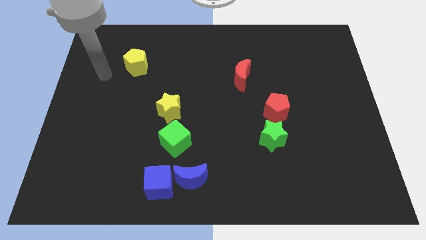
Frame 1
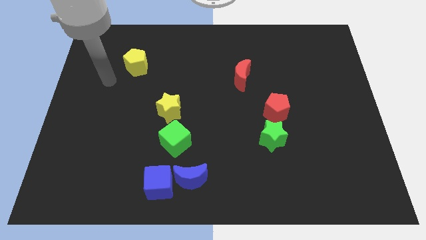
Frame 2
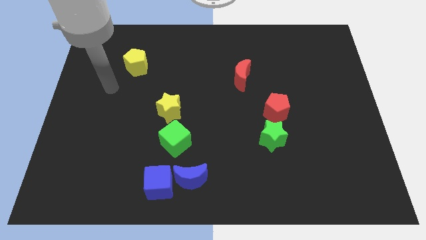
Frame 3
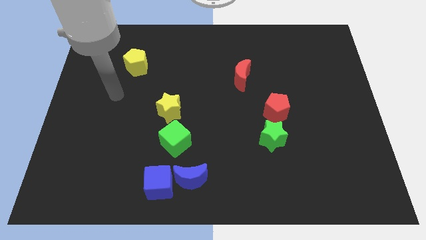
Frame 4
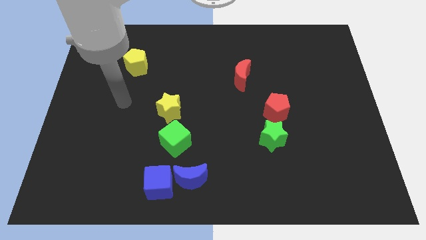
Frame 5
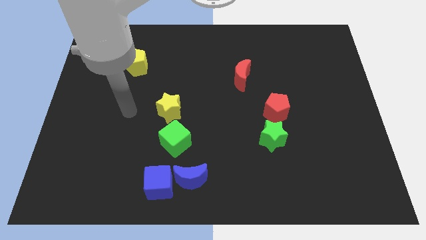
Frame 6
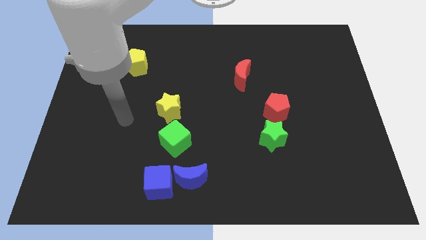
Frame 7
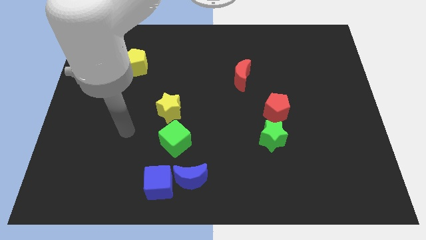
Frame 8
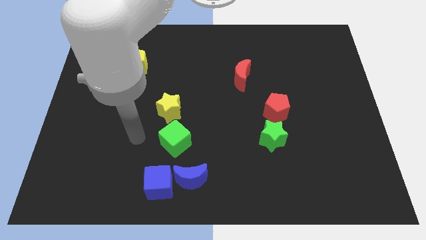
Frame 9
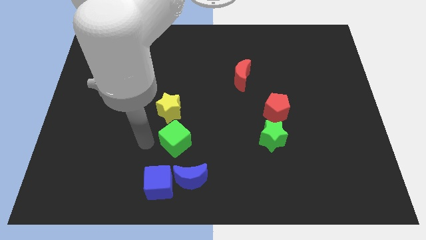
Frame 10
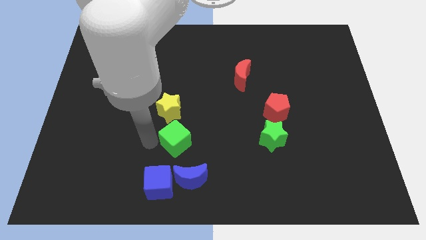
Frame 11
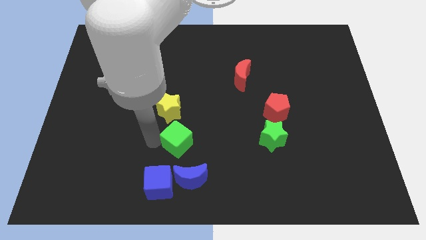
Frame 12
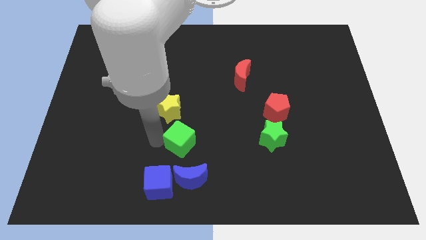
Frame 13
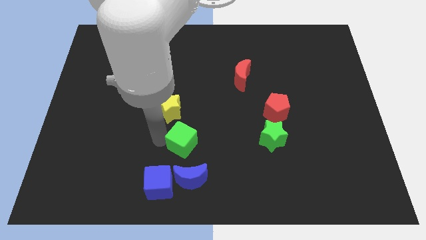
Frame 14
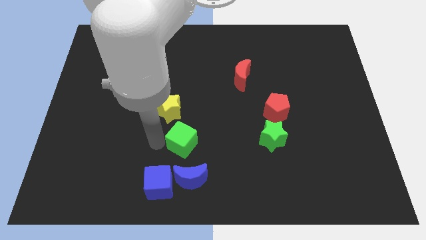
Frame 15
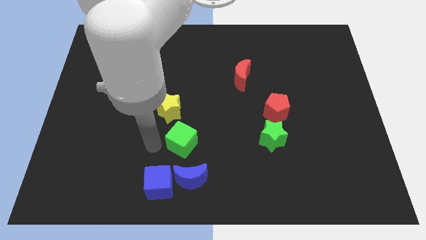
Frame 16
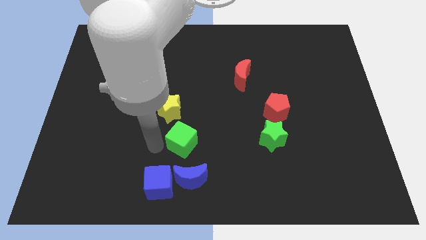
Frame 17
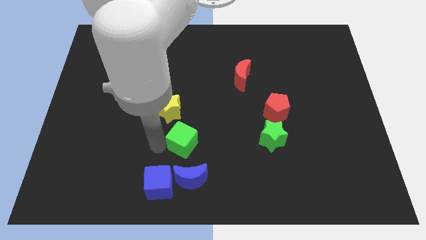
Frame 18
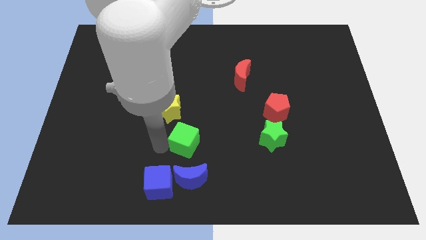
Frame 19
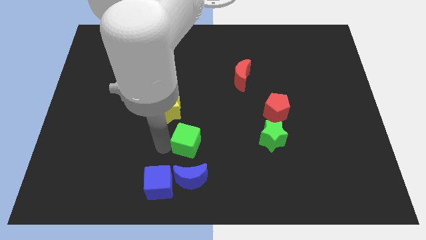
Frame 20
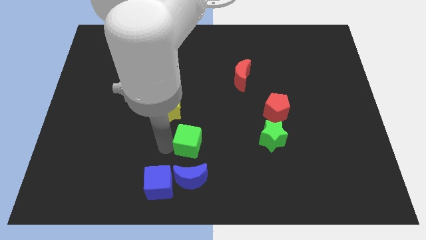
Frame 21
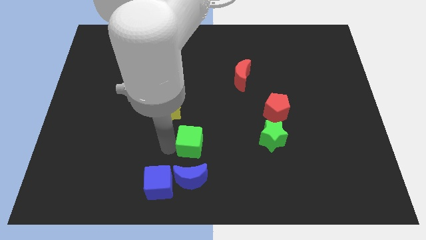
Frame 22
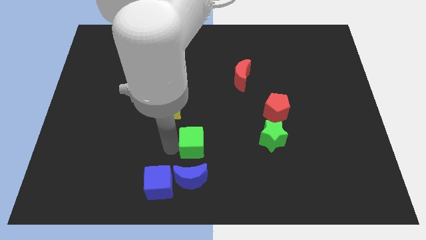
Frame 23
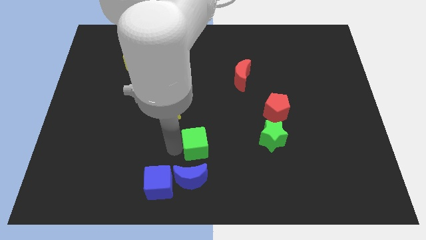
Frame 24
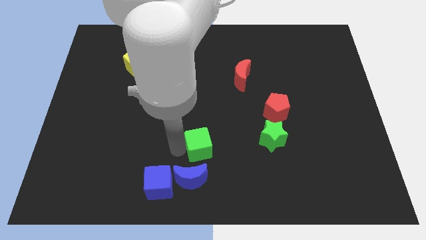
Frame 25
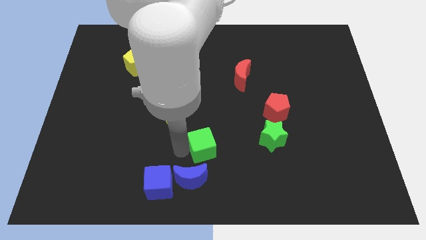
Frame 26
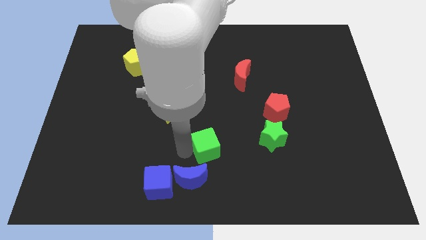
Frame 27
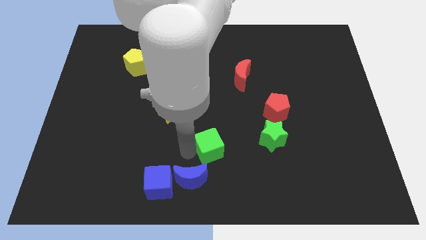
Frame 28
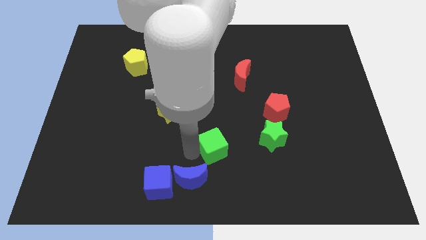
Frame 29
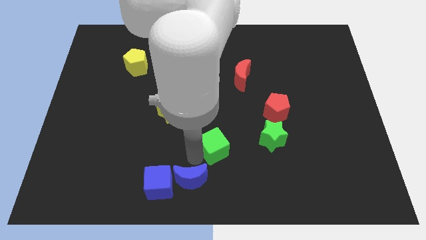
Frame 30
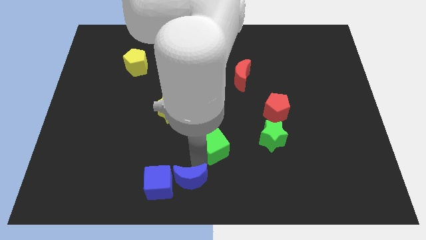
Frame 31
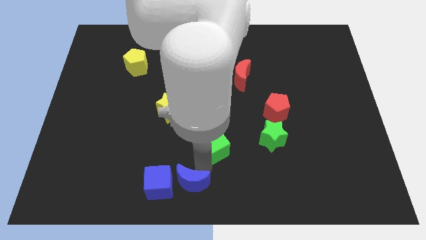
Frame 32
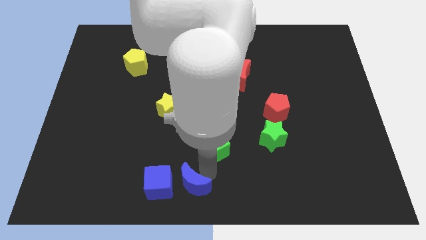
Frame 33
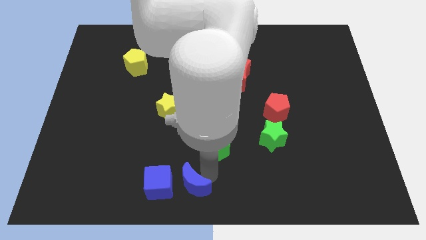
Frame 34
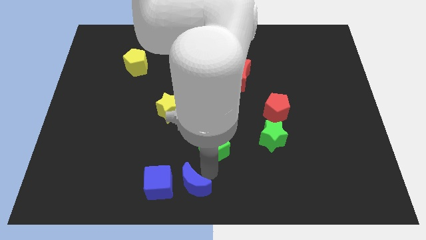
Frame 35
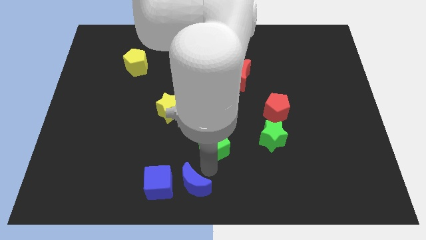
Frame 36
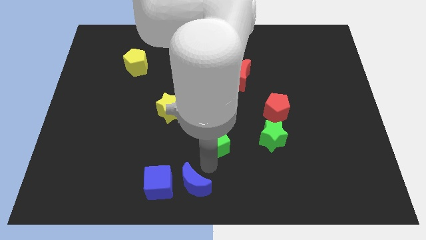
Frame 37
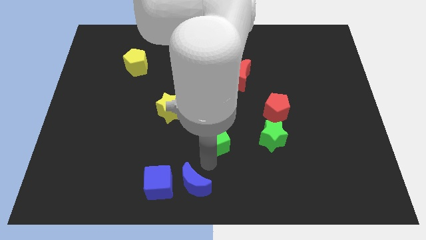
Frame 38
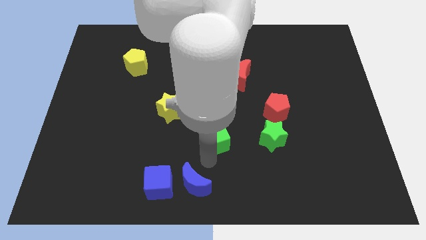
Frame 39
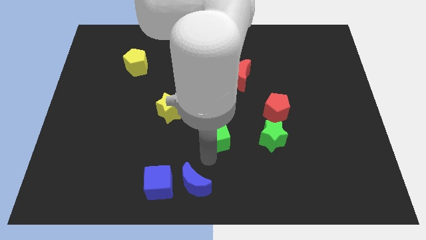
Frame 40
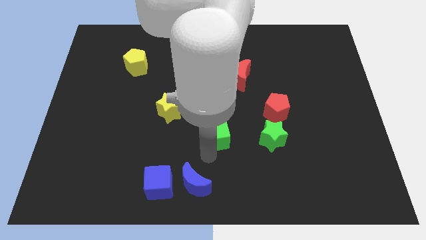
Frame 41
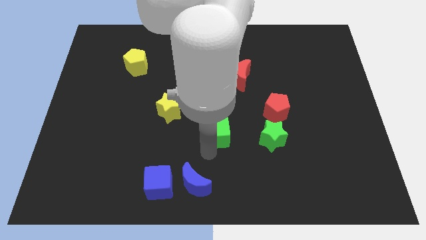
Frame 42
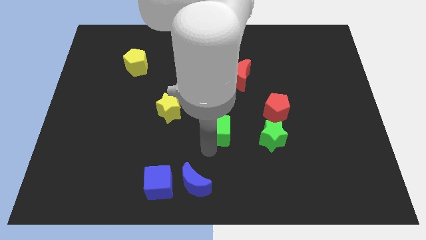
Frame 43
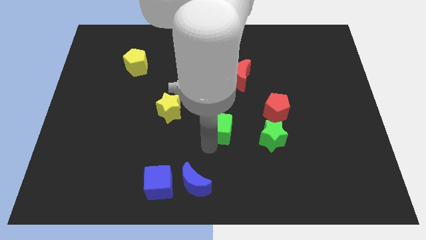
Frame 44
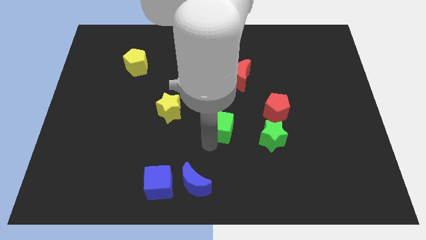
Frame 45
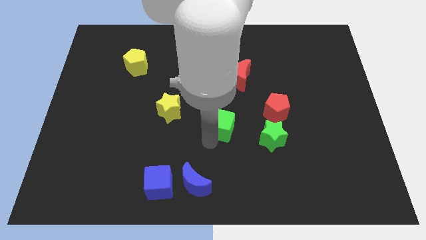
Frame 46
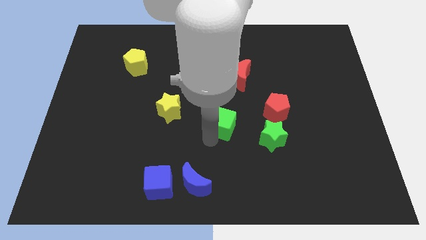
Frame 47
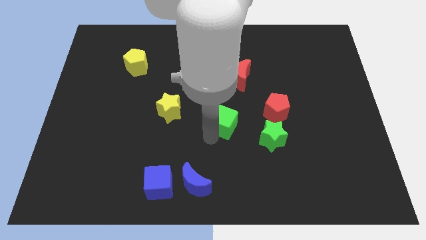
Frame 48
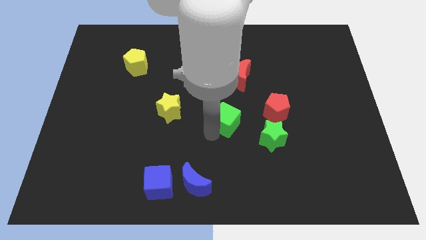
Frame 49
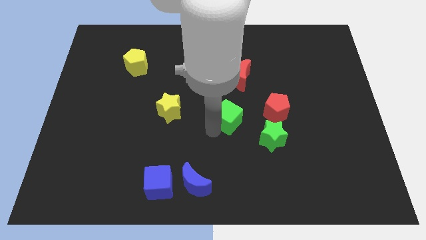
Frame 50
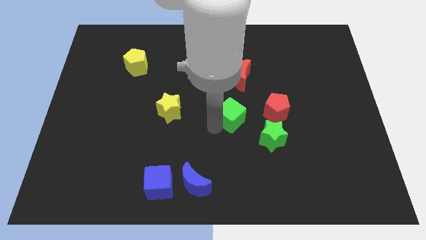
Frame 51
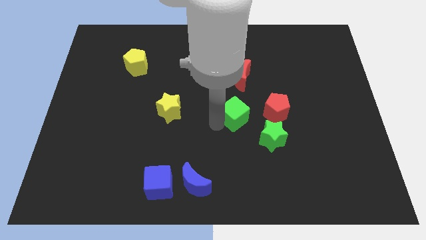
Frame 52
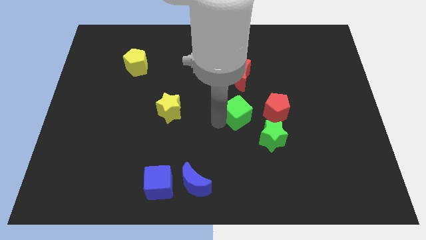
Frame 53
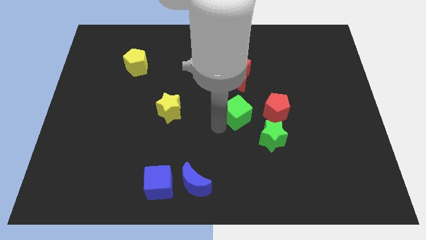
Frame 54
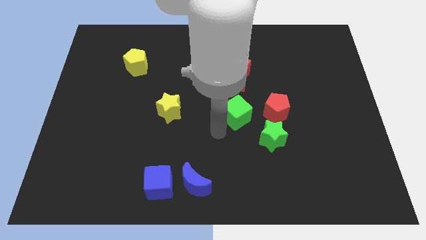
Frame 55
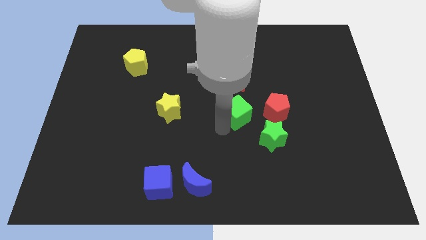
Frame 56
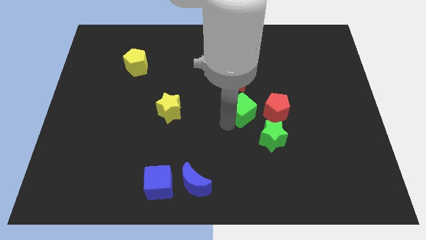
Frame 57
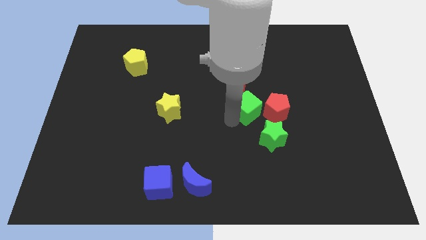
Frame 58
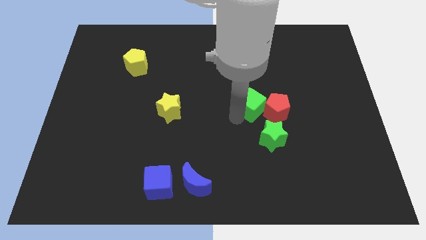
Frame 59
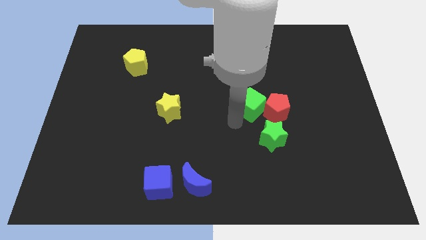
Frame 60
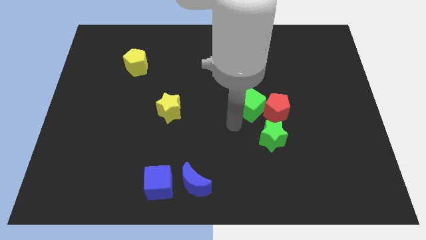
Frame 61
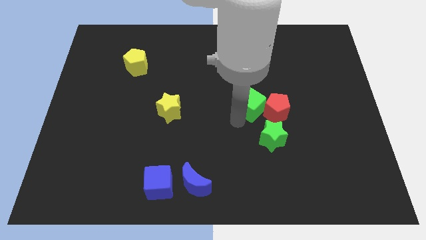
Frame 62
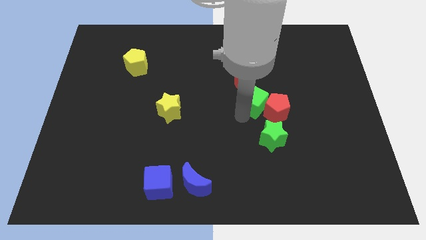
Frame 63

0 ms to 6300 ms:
slide the green cube diagonally down and to the right of the red moon
